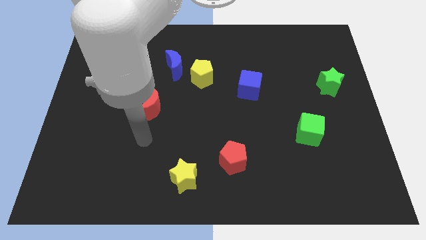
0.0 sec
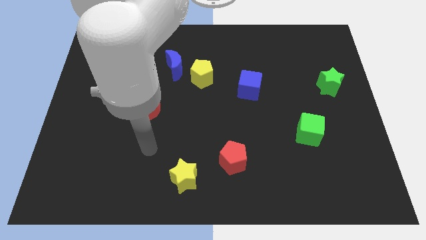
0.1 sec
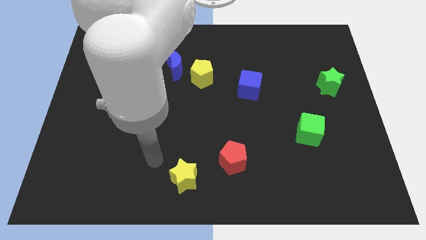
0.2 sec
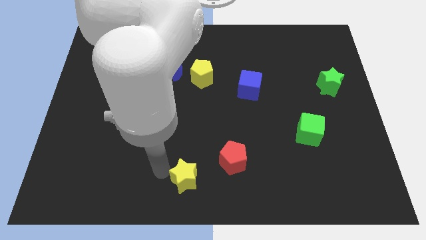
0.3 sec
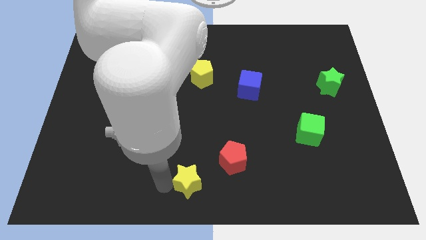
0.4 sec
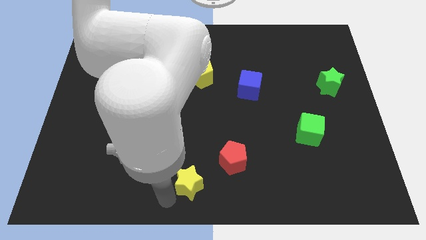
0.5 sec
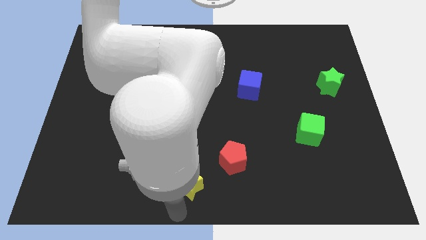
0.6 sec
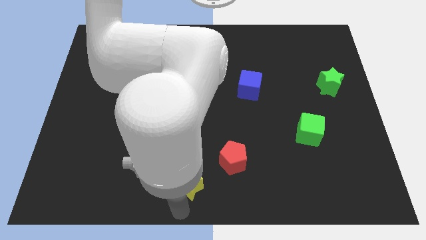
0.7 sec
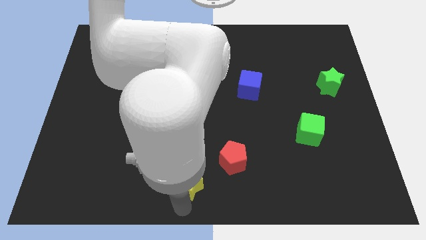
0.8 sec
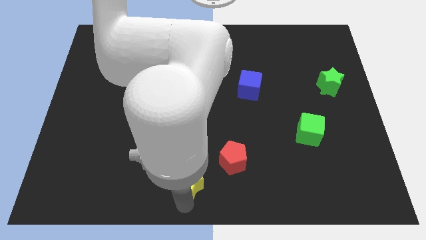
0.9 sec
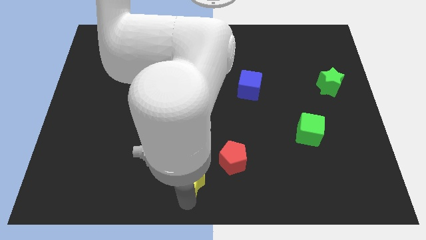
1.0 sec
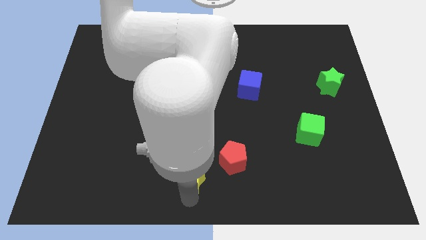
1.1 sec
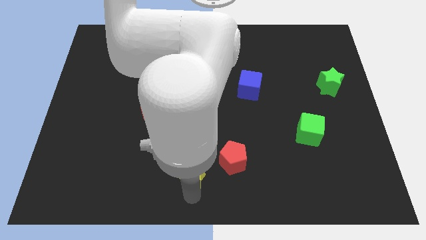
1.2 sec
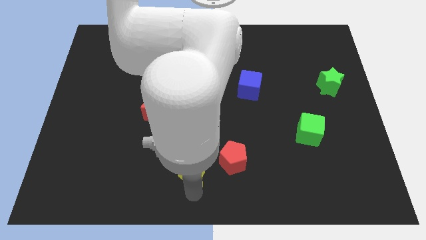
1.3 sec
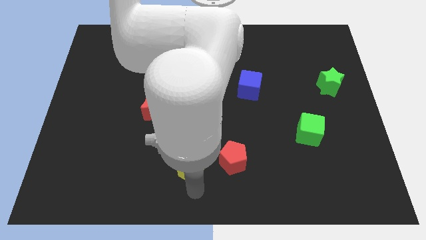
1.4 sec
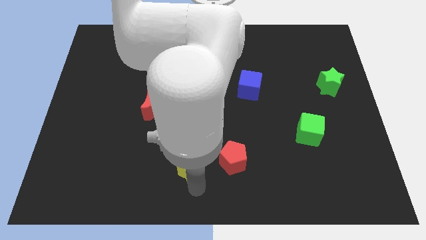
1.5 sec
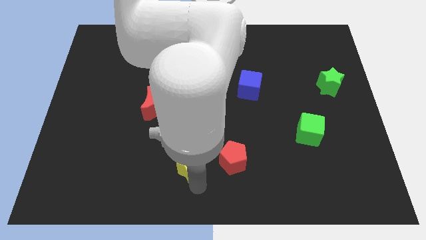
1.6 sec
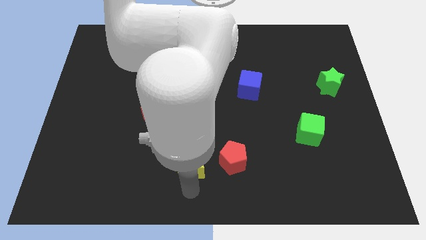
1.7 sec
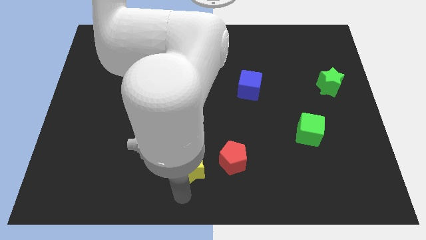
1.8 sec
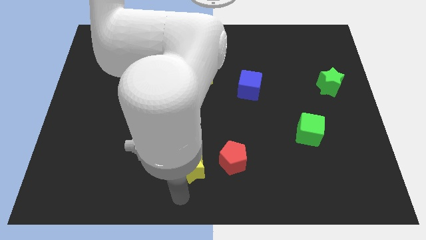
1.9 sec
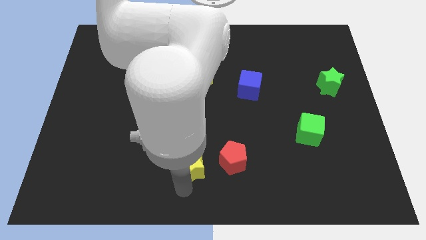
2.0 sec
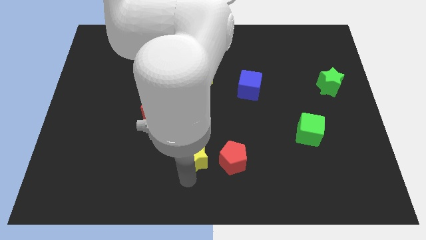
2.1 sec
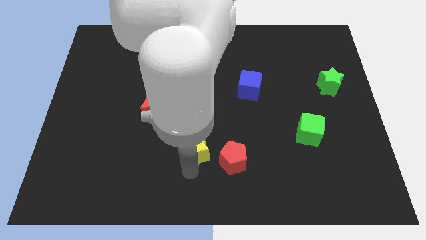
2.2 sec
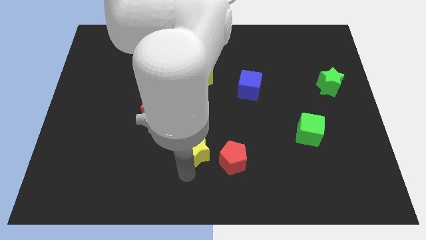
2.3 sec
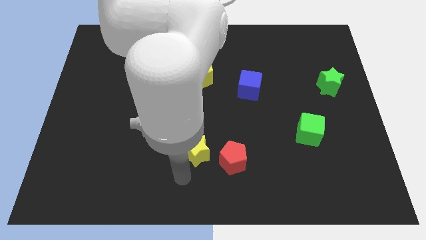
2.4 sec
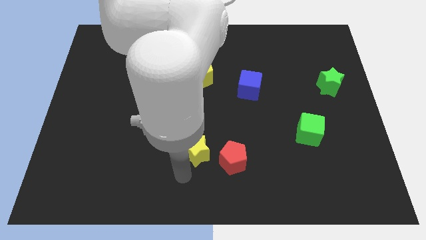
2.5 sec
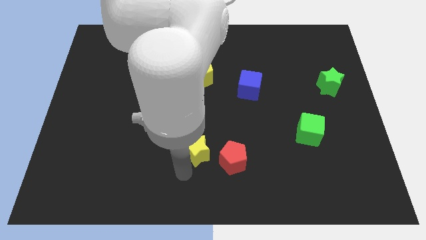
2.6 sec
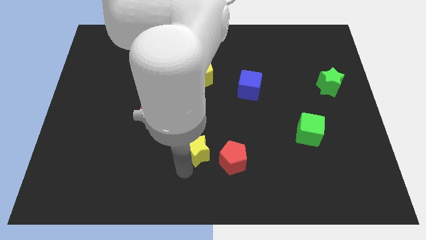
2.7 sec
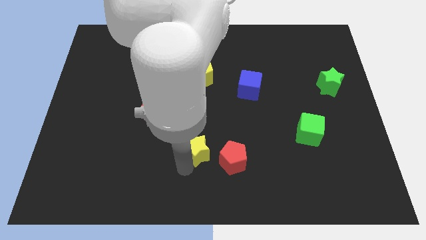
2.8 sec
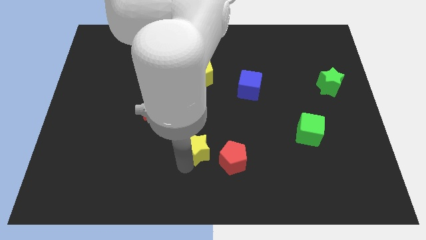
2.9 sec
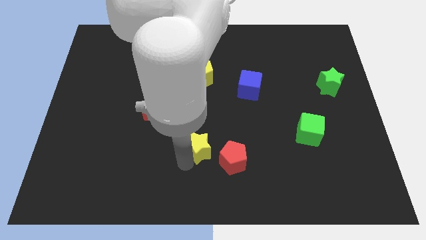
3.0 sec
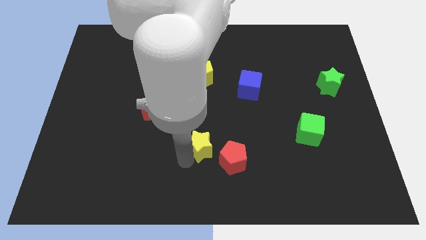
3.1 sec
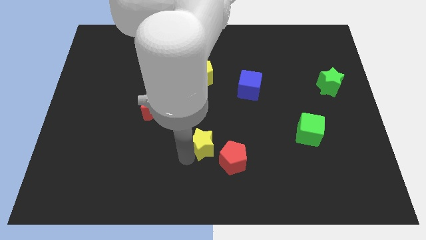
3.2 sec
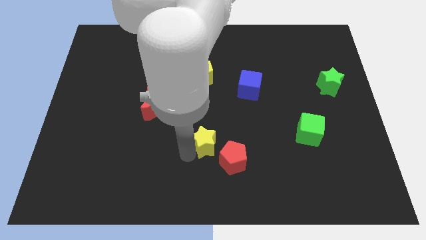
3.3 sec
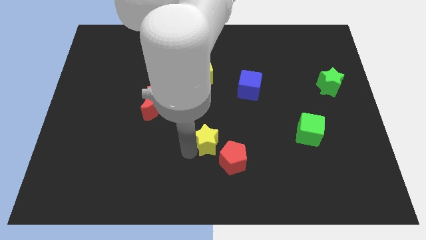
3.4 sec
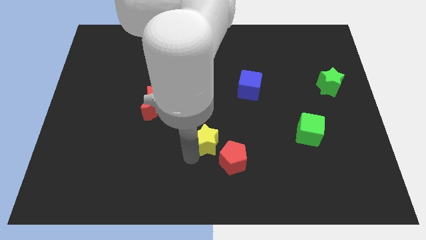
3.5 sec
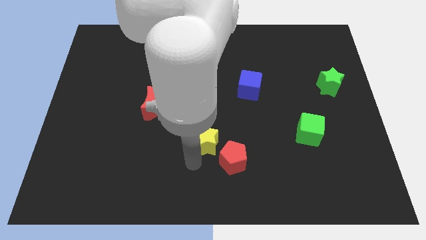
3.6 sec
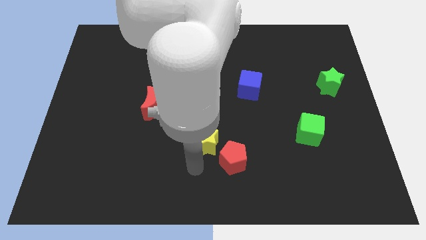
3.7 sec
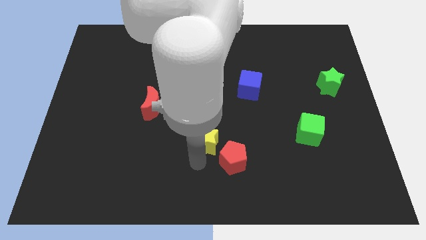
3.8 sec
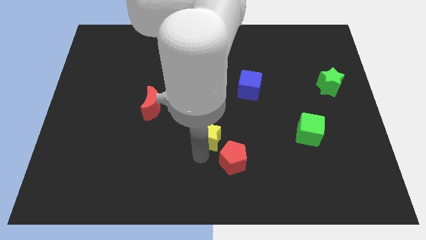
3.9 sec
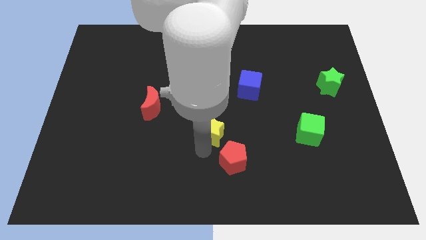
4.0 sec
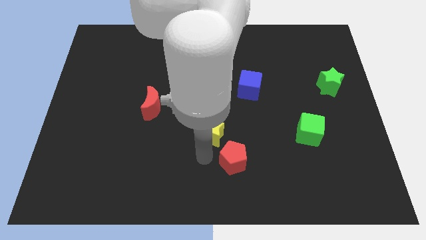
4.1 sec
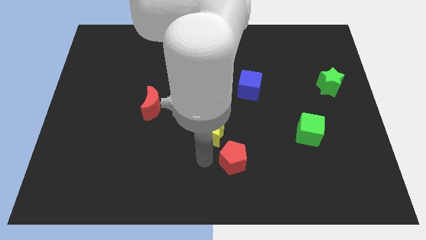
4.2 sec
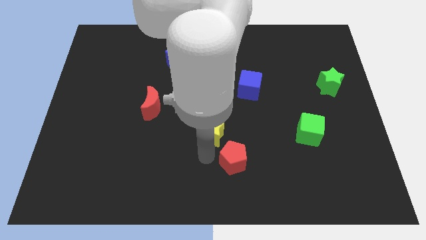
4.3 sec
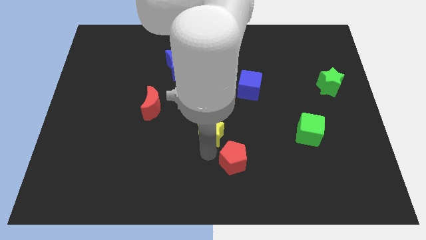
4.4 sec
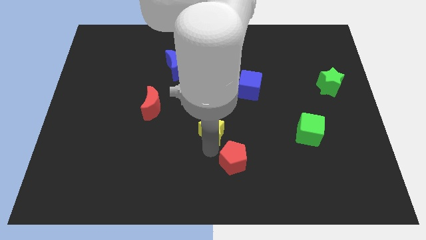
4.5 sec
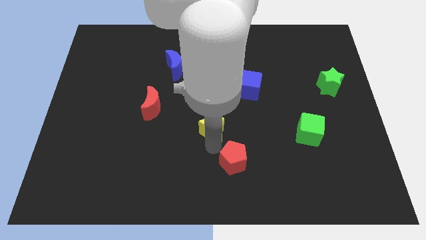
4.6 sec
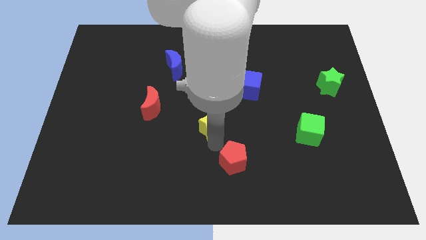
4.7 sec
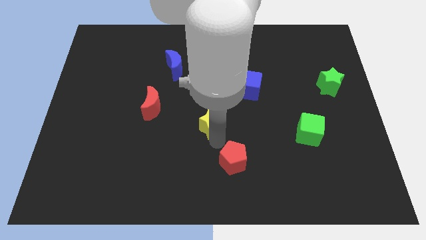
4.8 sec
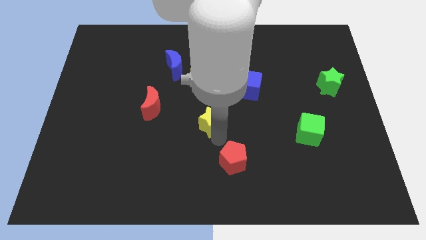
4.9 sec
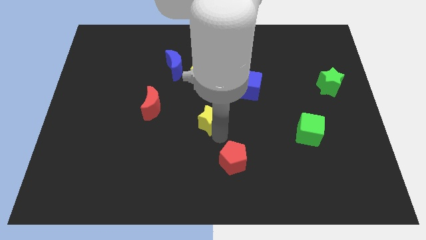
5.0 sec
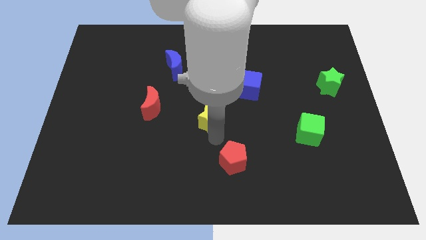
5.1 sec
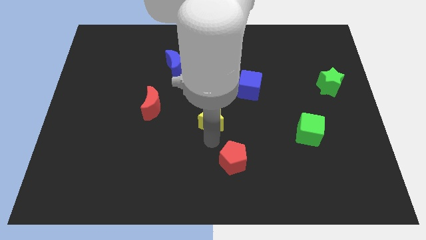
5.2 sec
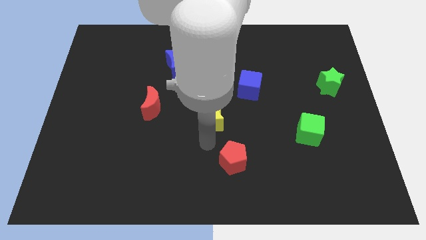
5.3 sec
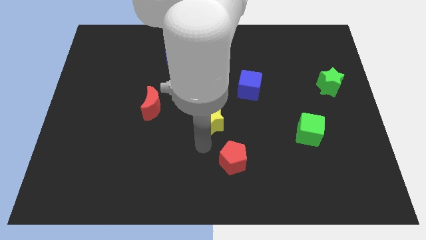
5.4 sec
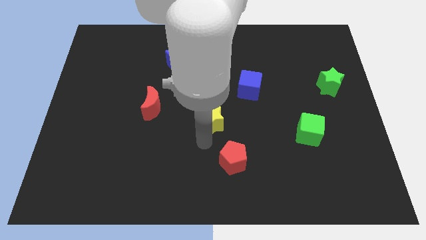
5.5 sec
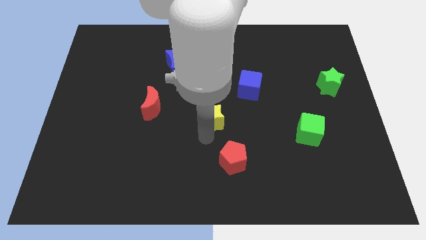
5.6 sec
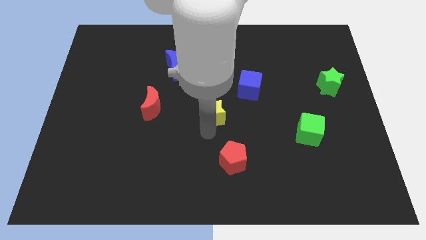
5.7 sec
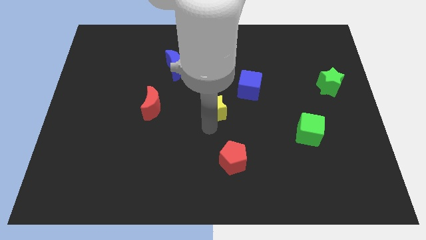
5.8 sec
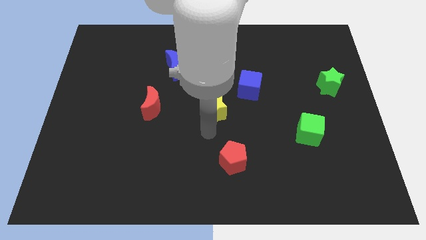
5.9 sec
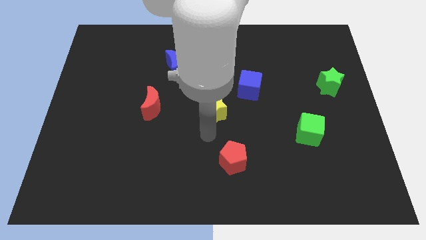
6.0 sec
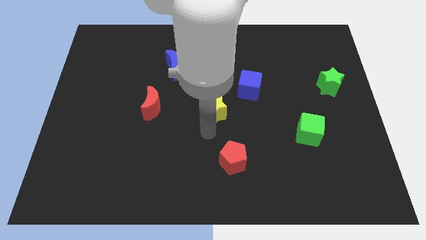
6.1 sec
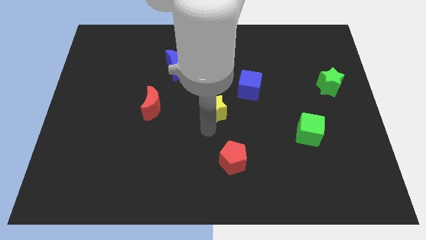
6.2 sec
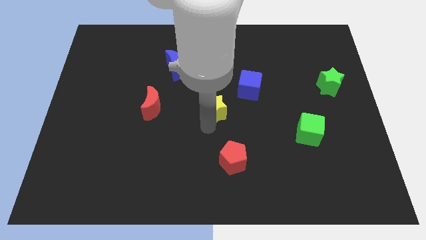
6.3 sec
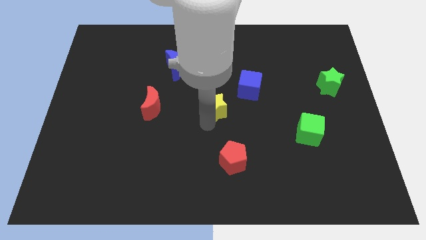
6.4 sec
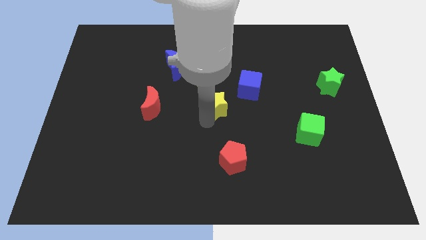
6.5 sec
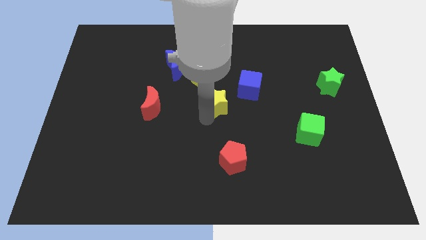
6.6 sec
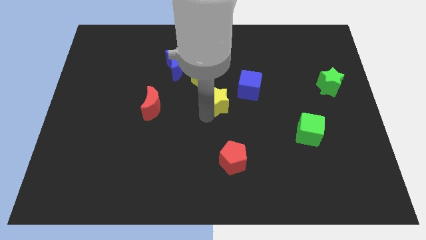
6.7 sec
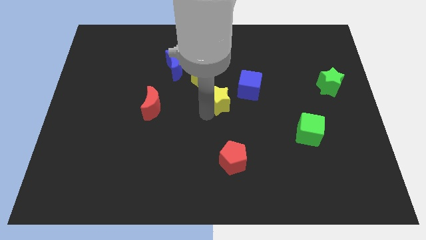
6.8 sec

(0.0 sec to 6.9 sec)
put the yellow star to the left of the blue cube

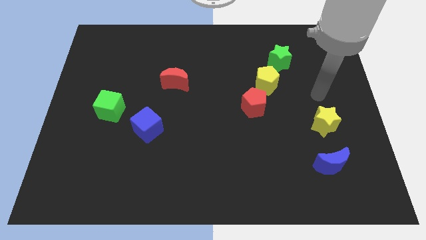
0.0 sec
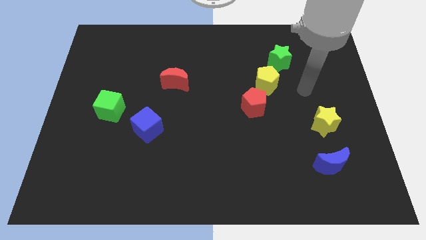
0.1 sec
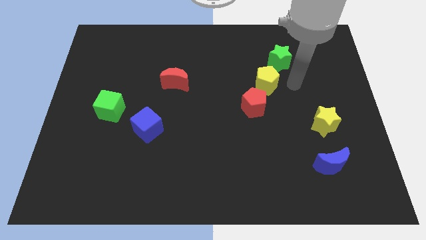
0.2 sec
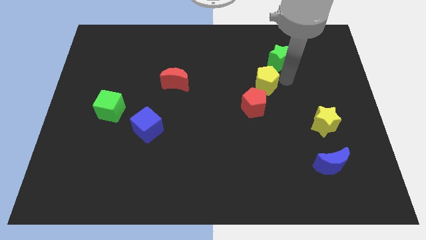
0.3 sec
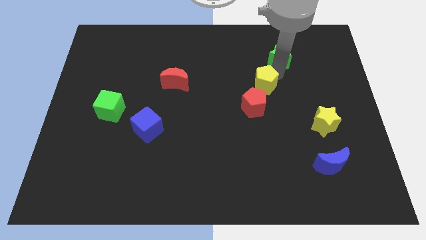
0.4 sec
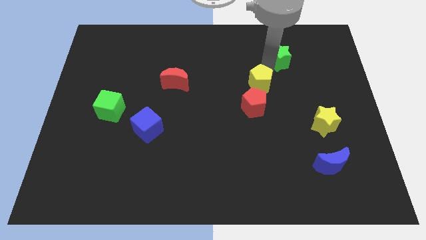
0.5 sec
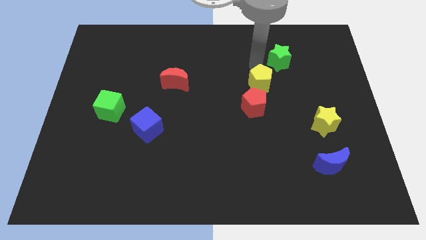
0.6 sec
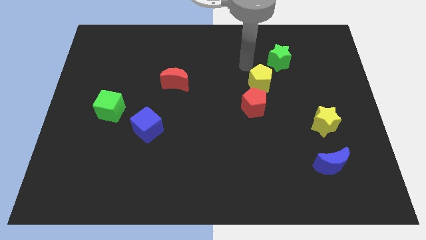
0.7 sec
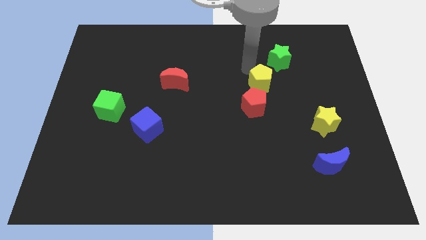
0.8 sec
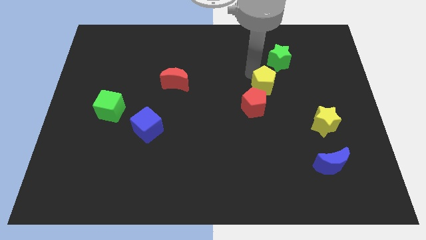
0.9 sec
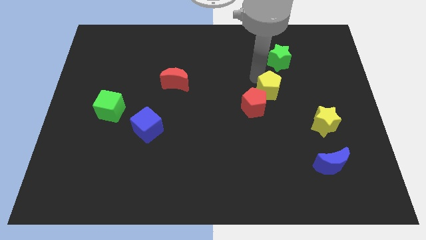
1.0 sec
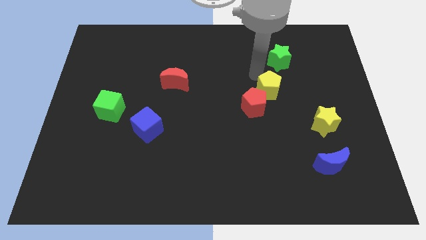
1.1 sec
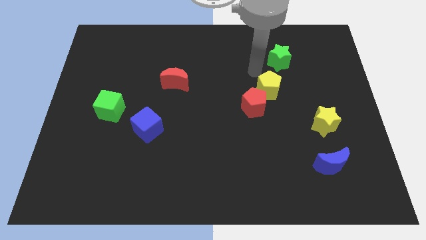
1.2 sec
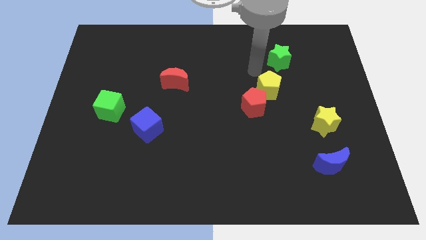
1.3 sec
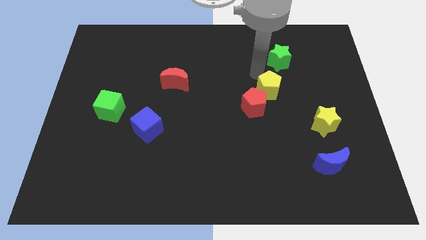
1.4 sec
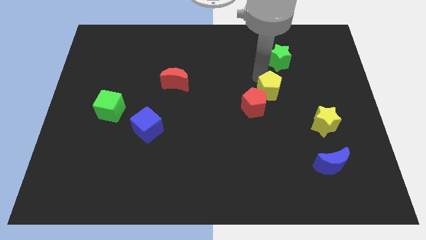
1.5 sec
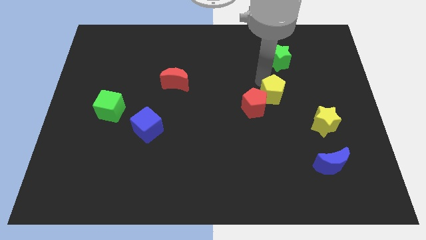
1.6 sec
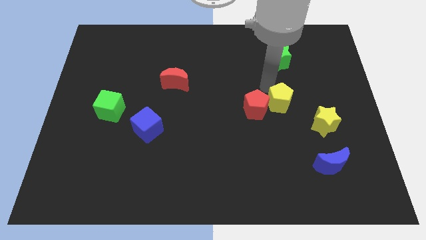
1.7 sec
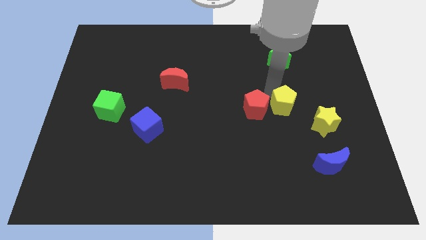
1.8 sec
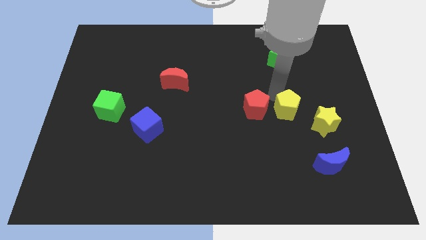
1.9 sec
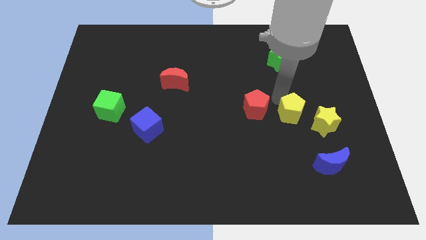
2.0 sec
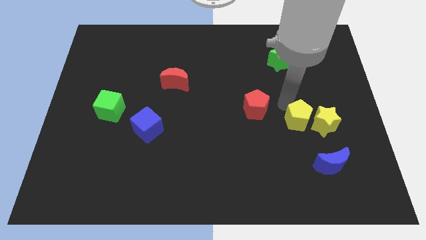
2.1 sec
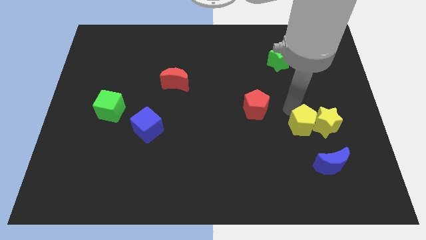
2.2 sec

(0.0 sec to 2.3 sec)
slide the yellow pentagon to the bottom left side of the yellow star
